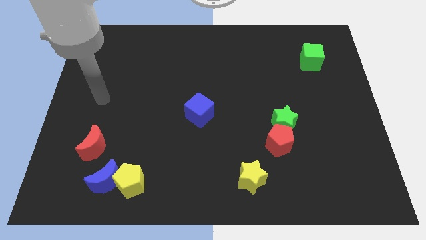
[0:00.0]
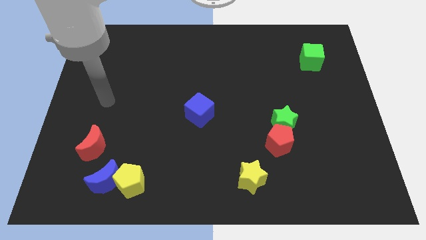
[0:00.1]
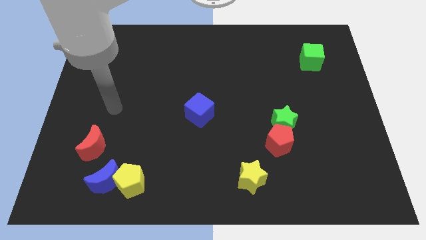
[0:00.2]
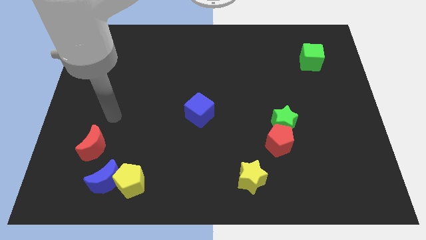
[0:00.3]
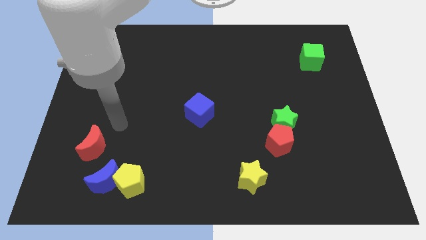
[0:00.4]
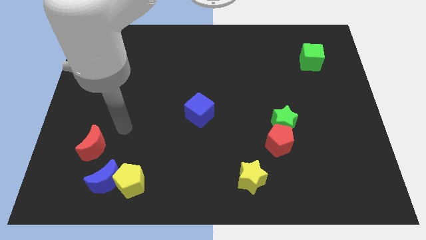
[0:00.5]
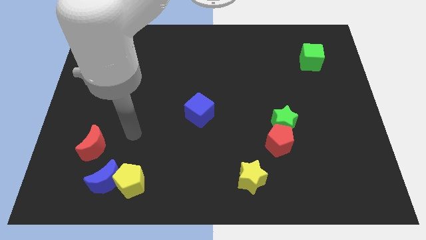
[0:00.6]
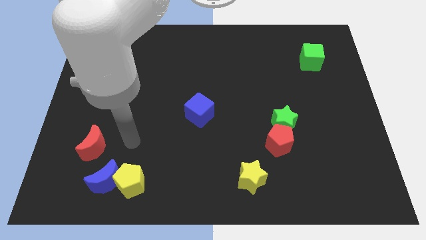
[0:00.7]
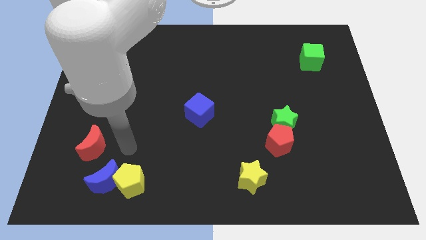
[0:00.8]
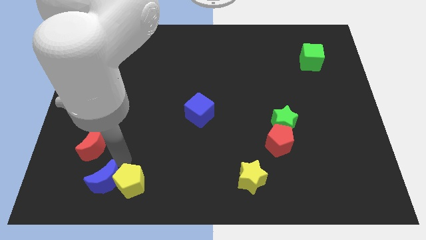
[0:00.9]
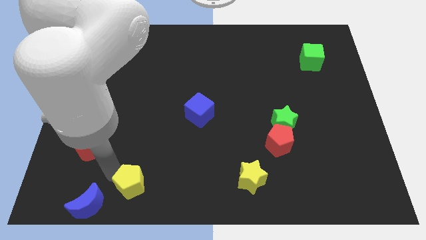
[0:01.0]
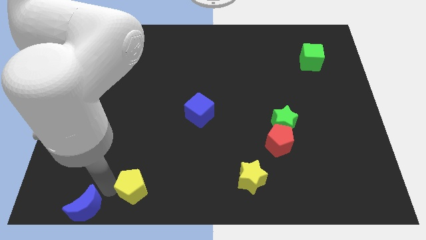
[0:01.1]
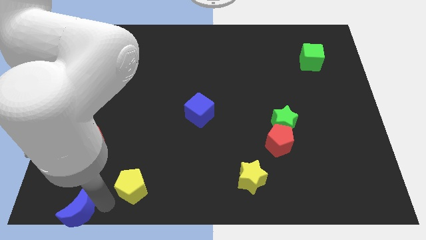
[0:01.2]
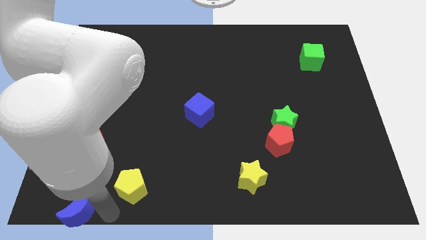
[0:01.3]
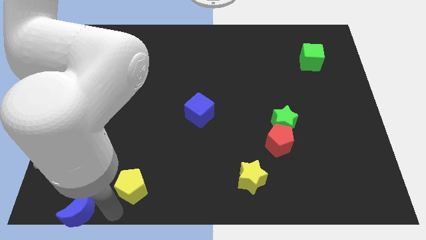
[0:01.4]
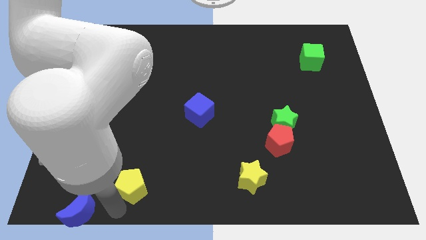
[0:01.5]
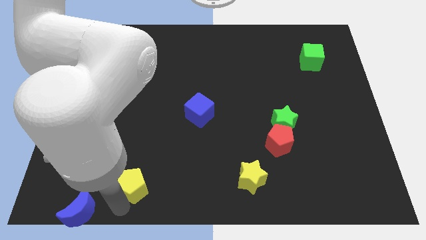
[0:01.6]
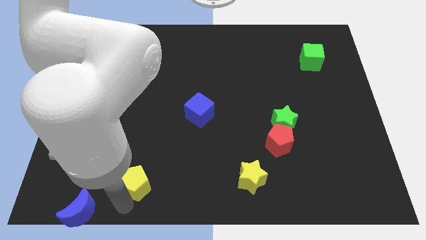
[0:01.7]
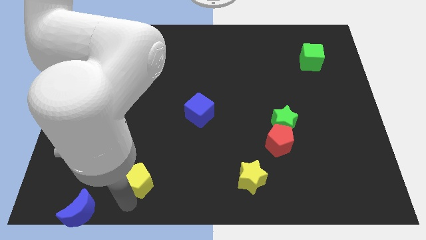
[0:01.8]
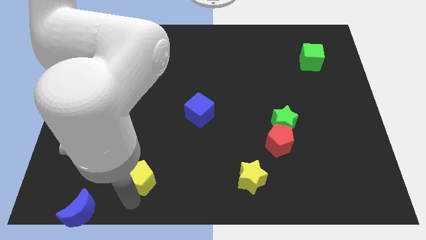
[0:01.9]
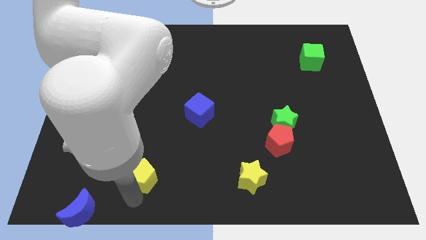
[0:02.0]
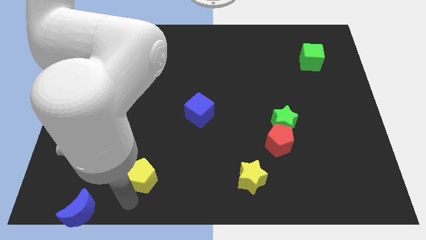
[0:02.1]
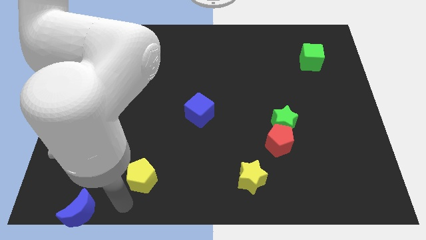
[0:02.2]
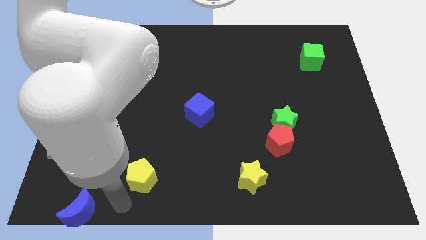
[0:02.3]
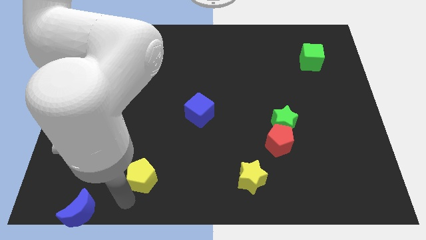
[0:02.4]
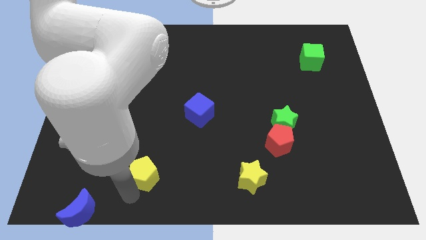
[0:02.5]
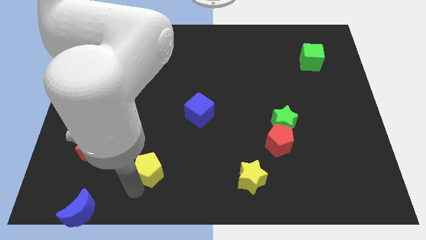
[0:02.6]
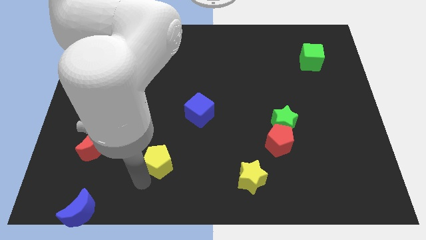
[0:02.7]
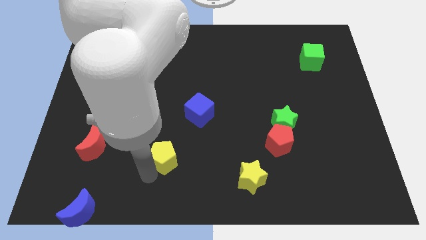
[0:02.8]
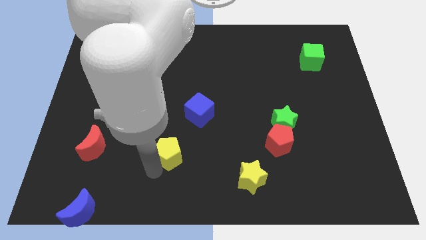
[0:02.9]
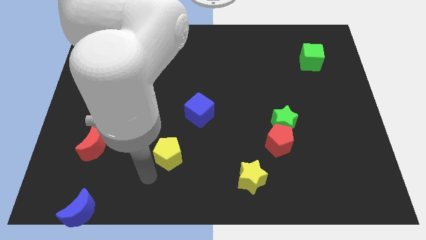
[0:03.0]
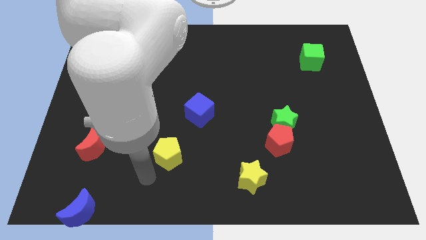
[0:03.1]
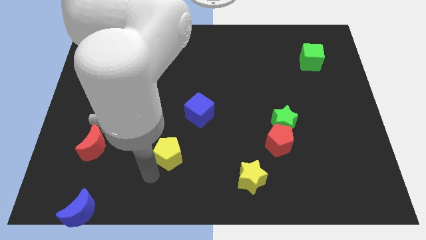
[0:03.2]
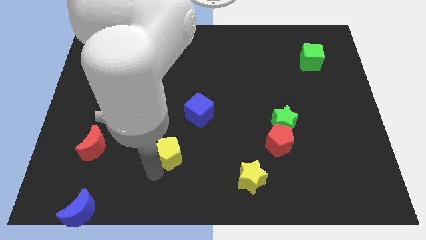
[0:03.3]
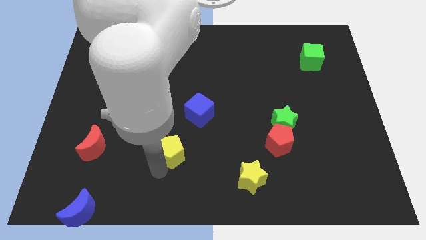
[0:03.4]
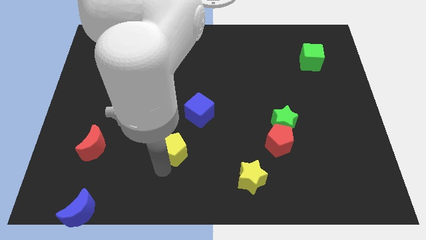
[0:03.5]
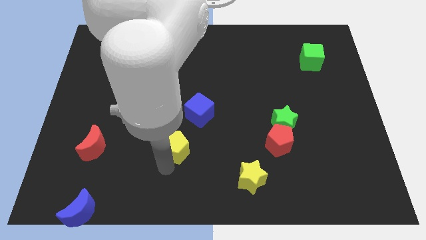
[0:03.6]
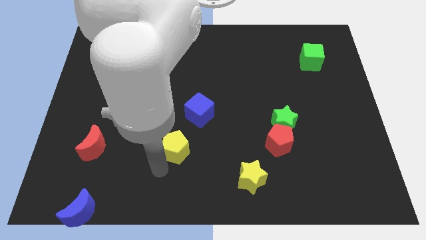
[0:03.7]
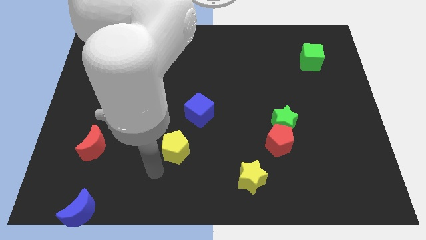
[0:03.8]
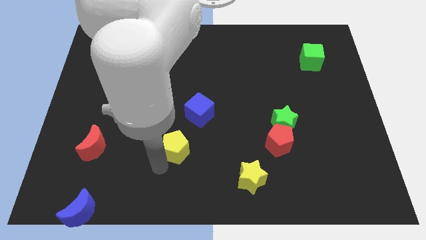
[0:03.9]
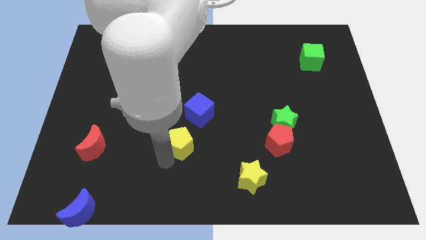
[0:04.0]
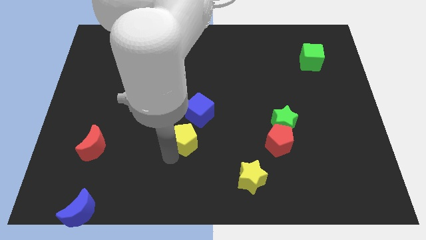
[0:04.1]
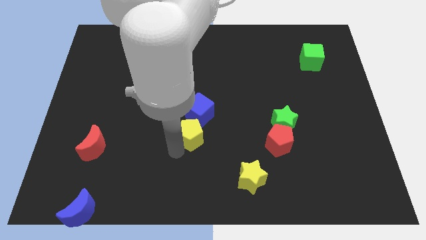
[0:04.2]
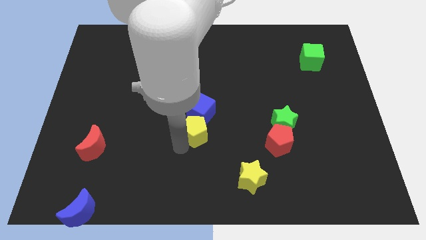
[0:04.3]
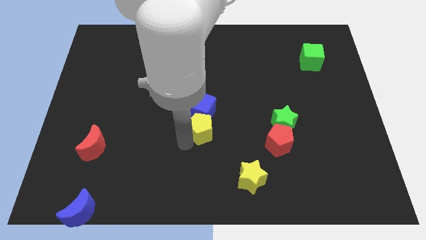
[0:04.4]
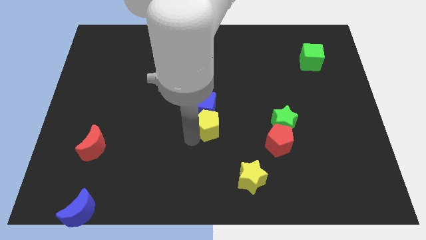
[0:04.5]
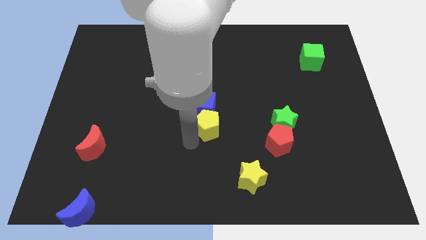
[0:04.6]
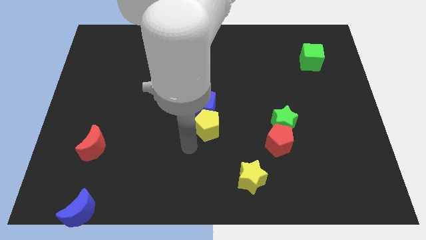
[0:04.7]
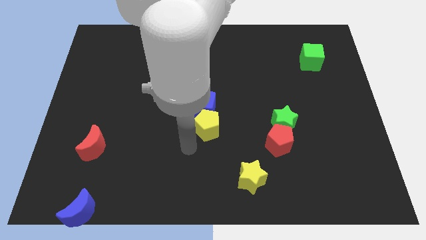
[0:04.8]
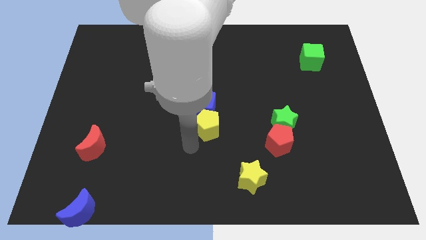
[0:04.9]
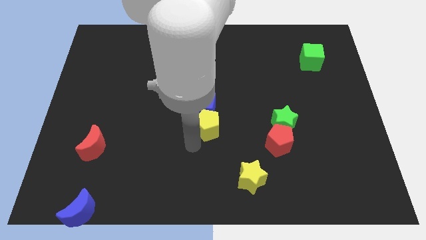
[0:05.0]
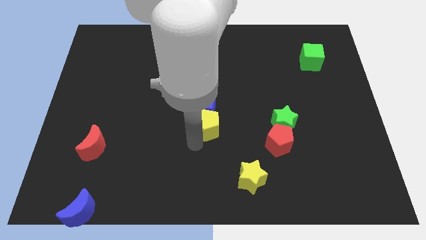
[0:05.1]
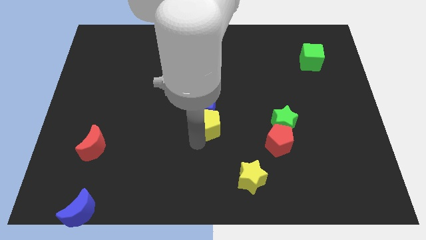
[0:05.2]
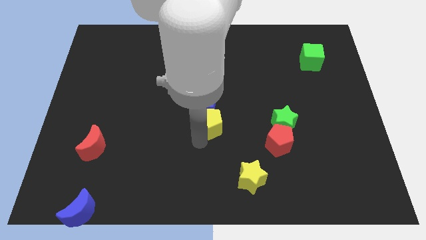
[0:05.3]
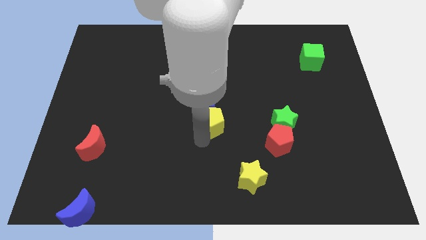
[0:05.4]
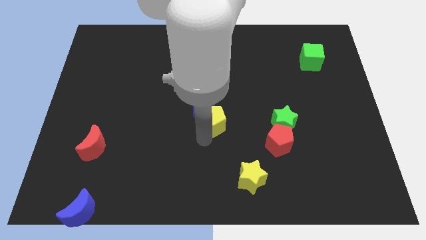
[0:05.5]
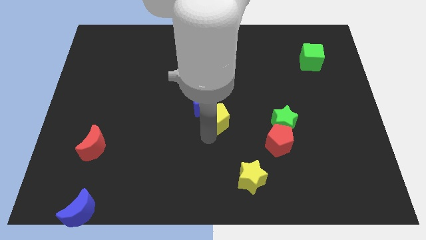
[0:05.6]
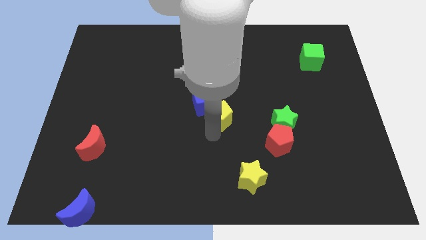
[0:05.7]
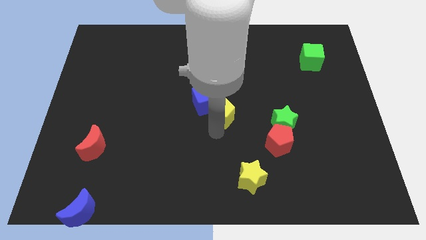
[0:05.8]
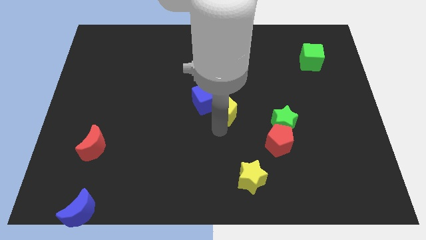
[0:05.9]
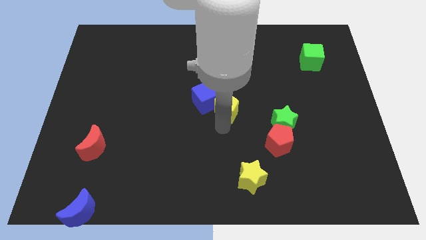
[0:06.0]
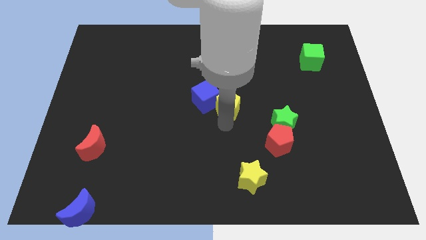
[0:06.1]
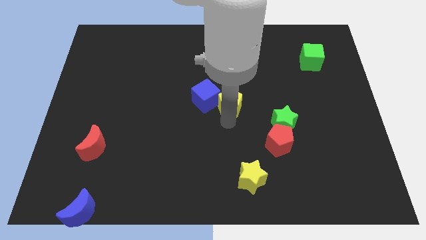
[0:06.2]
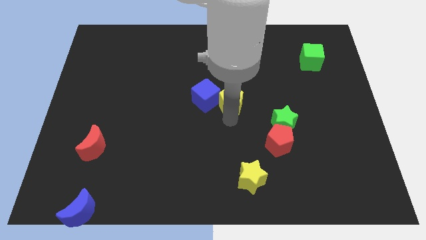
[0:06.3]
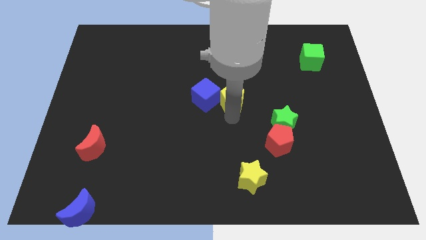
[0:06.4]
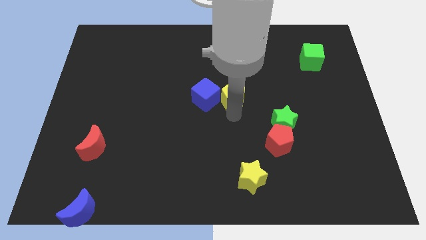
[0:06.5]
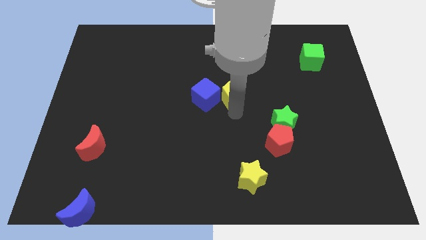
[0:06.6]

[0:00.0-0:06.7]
slide the yellow pentagon to the top right side of the blue cube
